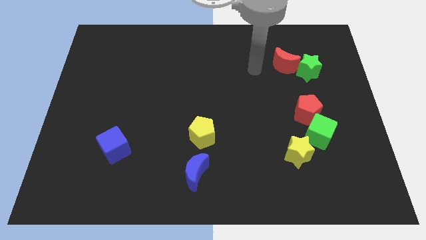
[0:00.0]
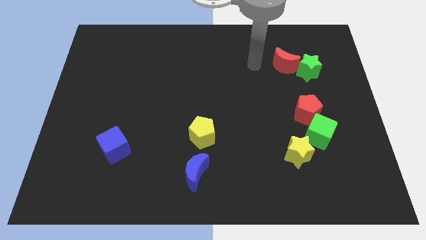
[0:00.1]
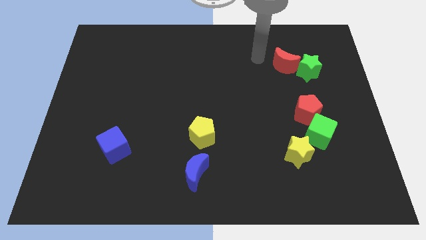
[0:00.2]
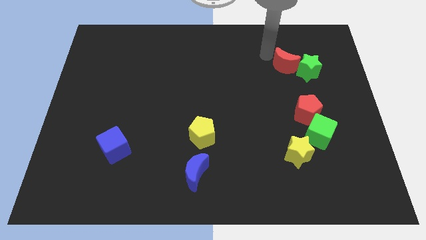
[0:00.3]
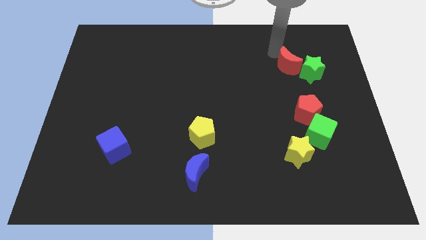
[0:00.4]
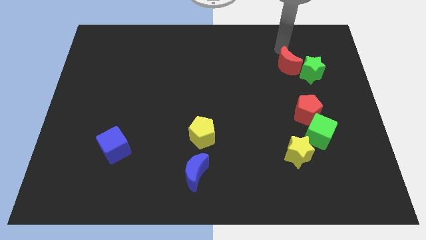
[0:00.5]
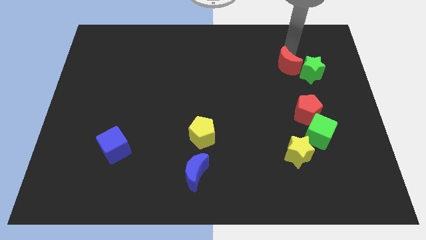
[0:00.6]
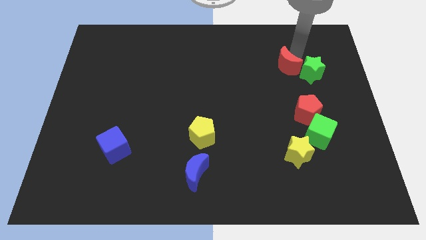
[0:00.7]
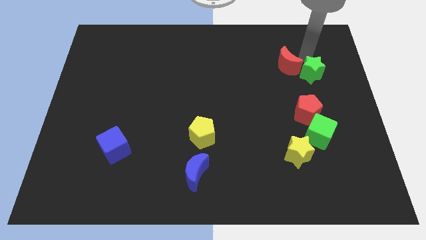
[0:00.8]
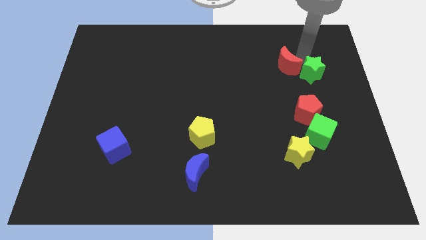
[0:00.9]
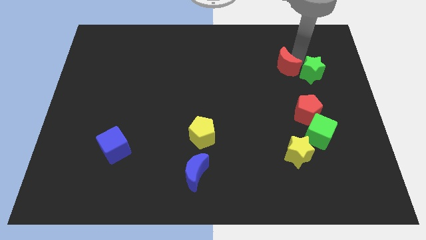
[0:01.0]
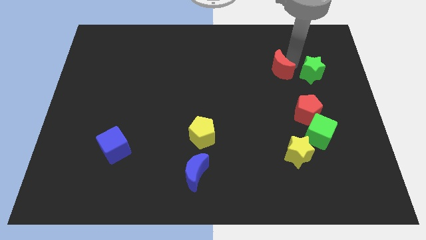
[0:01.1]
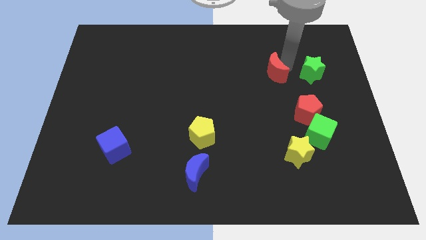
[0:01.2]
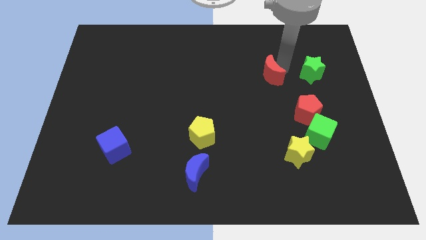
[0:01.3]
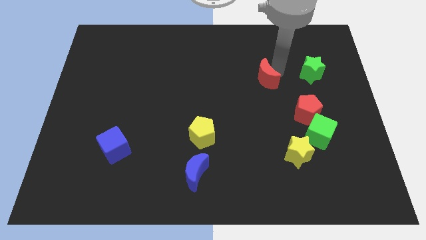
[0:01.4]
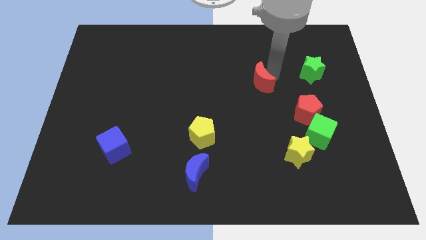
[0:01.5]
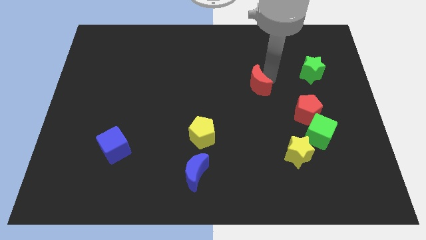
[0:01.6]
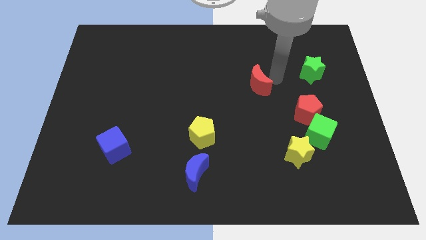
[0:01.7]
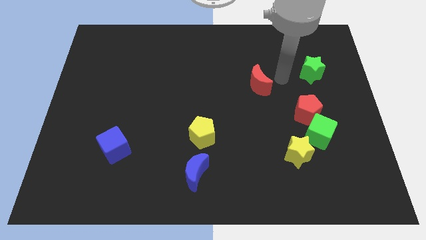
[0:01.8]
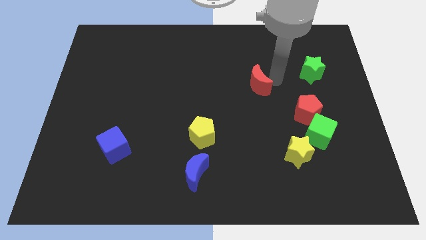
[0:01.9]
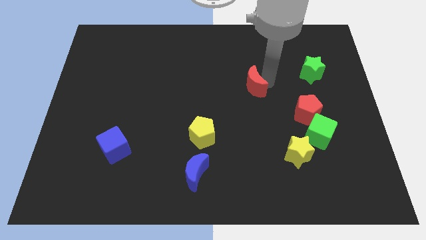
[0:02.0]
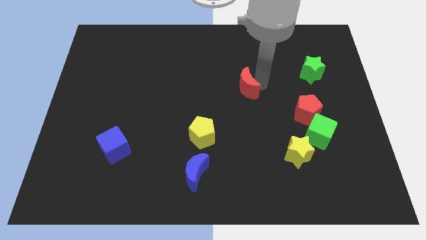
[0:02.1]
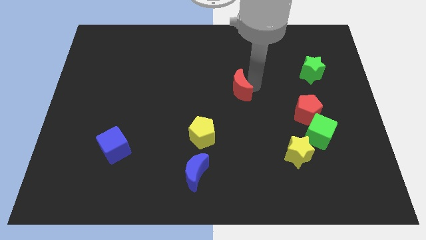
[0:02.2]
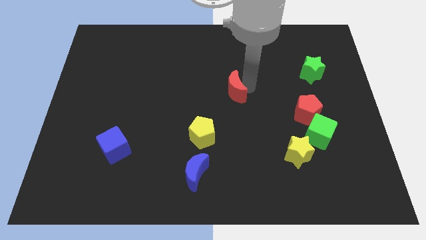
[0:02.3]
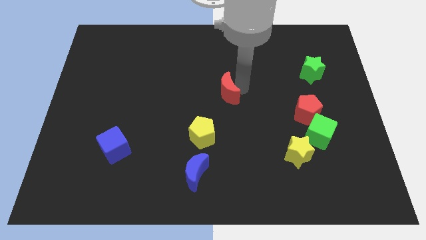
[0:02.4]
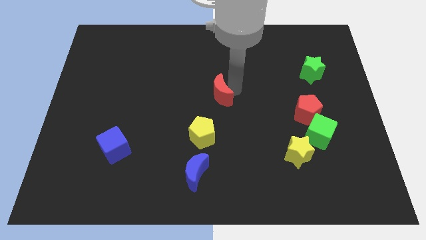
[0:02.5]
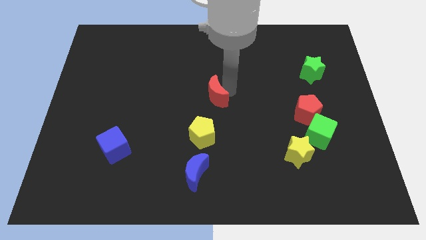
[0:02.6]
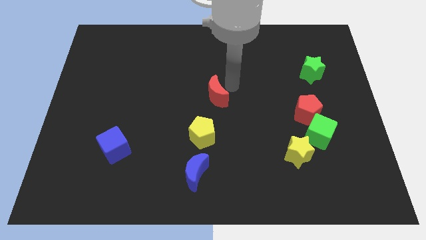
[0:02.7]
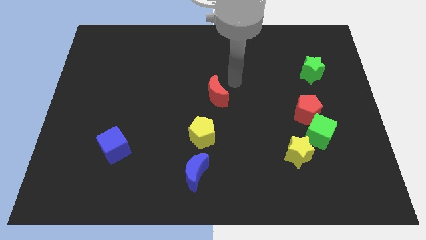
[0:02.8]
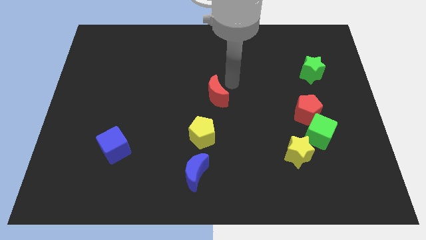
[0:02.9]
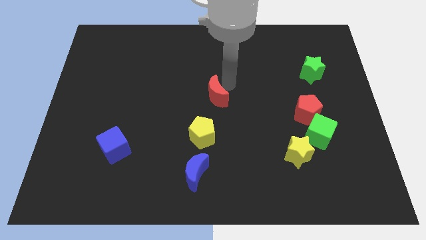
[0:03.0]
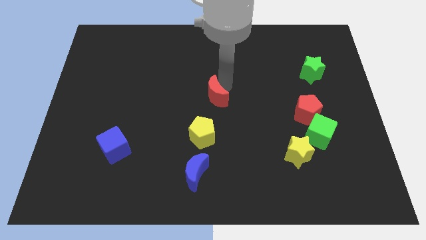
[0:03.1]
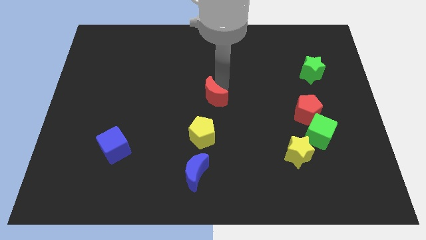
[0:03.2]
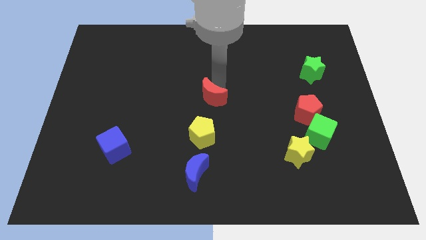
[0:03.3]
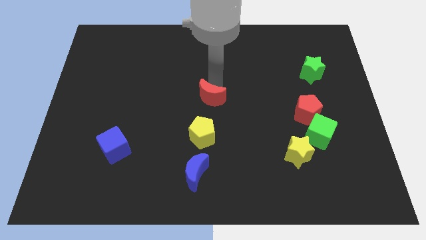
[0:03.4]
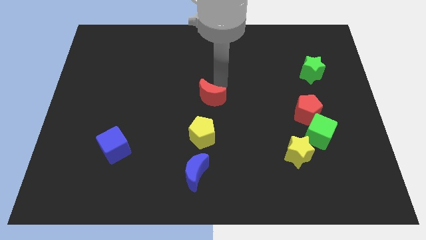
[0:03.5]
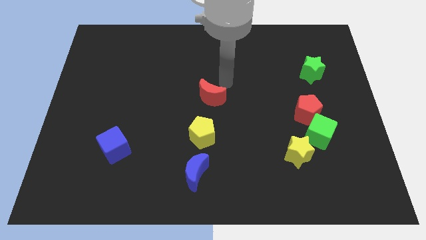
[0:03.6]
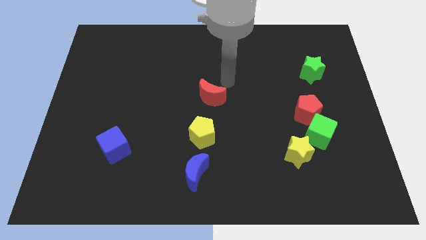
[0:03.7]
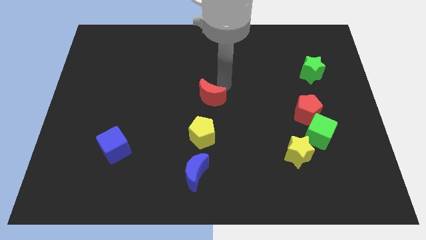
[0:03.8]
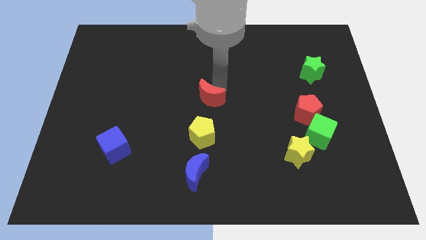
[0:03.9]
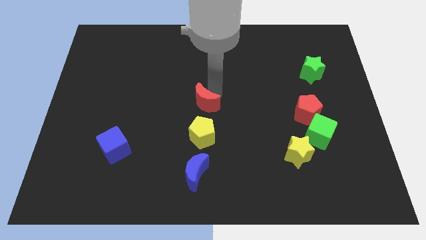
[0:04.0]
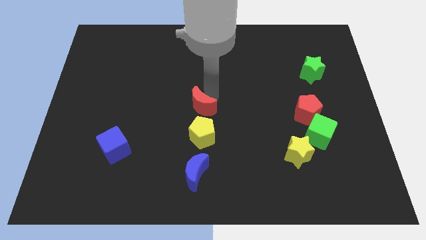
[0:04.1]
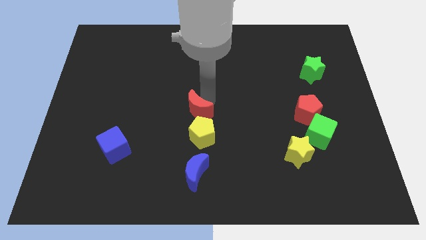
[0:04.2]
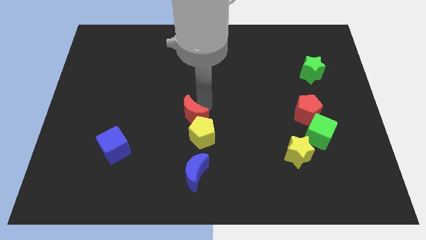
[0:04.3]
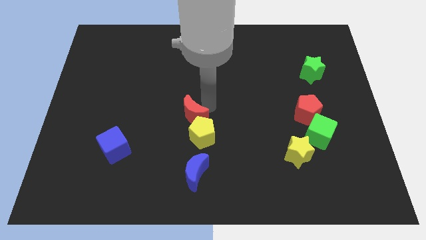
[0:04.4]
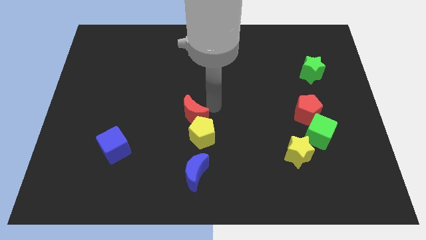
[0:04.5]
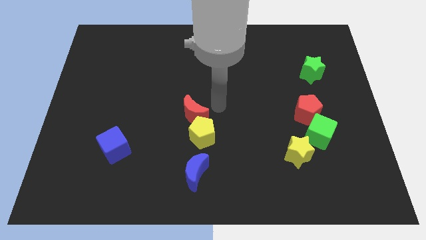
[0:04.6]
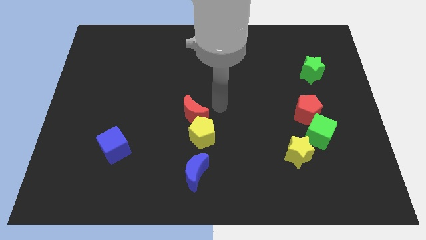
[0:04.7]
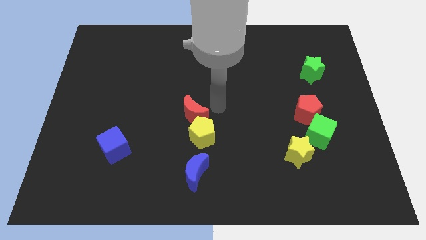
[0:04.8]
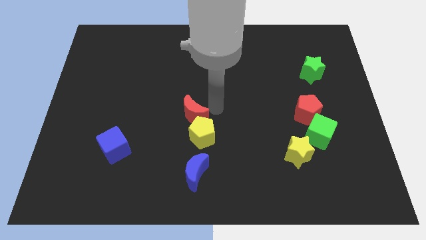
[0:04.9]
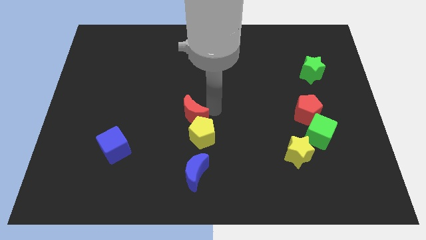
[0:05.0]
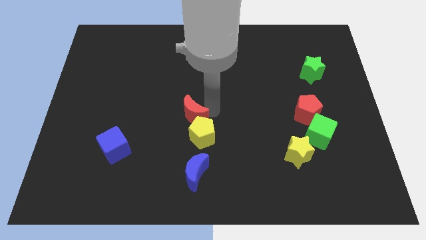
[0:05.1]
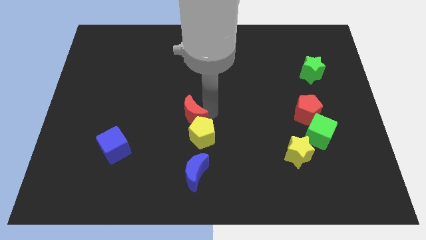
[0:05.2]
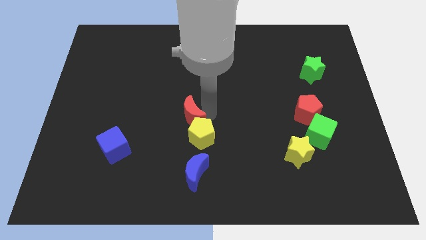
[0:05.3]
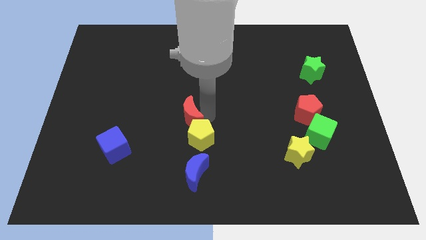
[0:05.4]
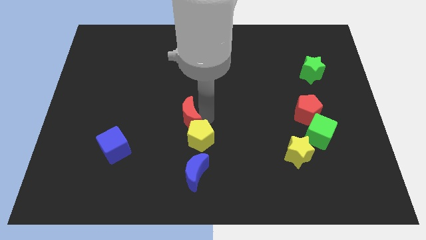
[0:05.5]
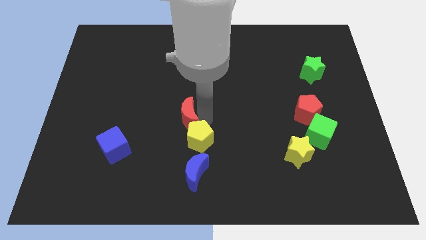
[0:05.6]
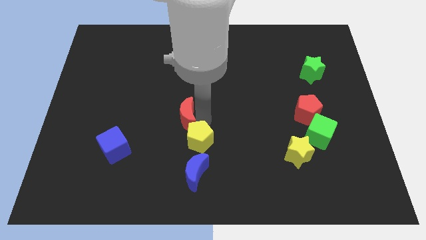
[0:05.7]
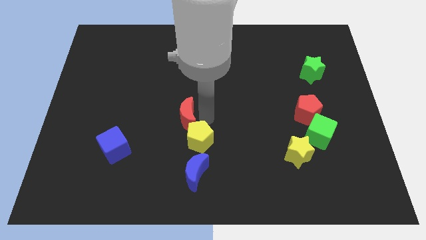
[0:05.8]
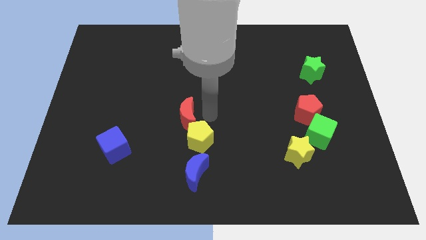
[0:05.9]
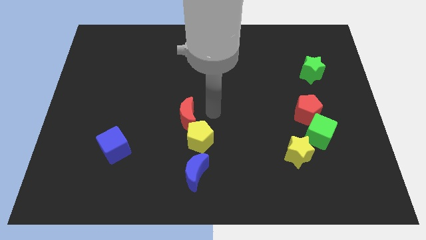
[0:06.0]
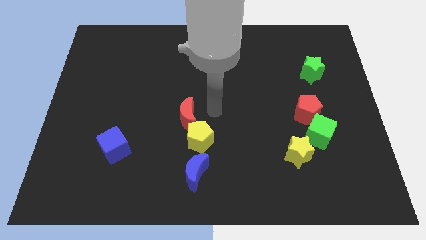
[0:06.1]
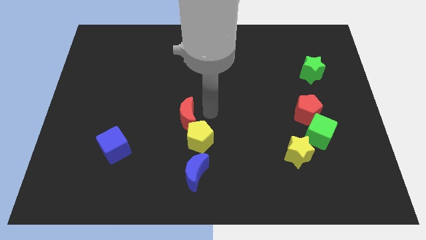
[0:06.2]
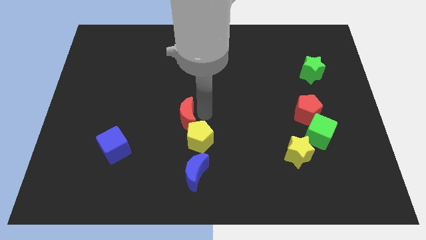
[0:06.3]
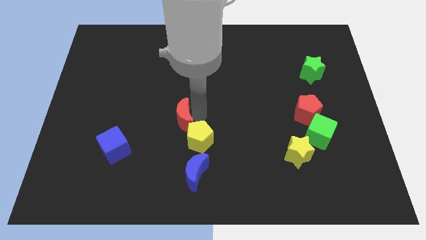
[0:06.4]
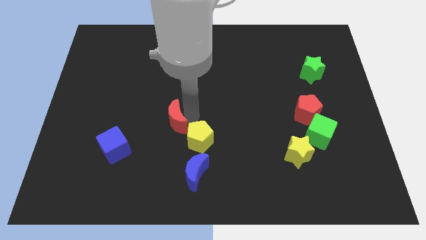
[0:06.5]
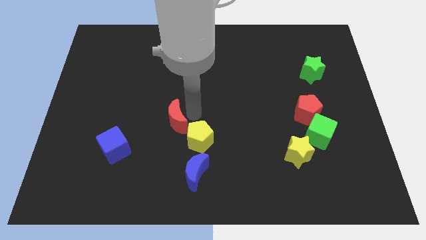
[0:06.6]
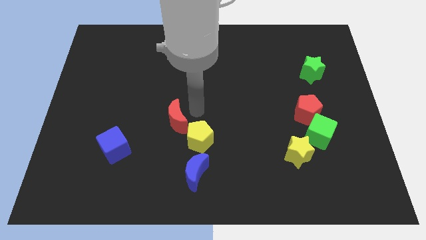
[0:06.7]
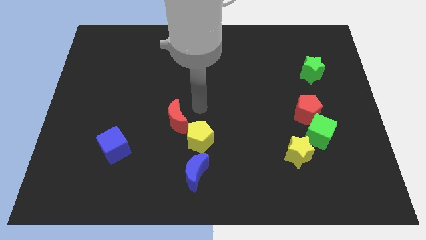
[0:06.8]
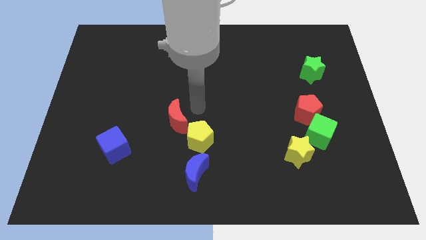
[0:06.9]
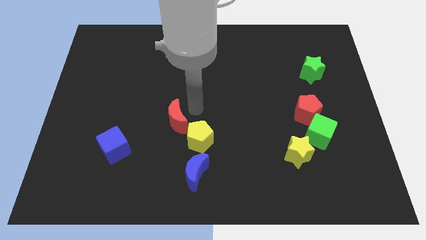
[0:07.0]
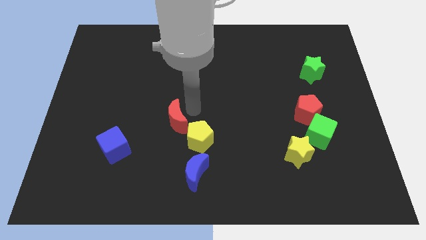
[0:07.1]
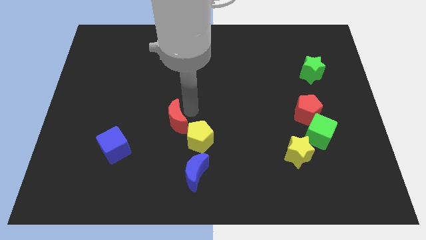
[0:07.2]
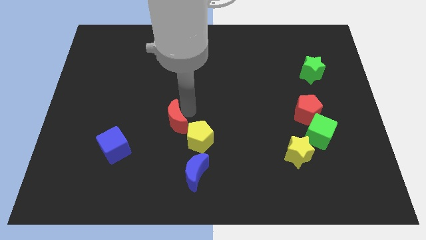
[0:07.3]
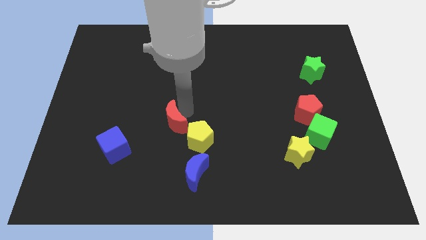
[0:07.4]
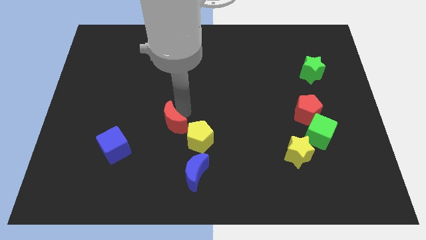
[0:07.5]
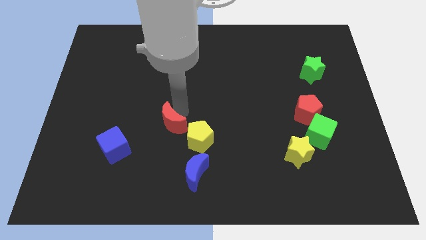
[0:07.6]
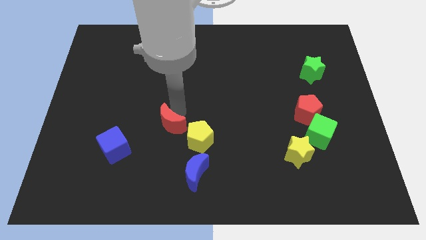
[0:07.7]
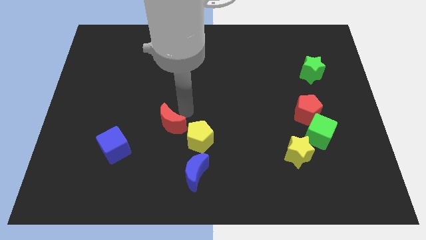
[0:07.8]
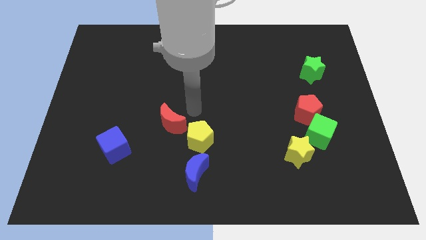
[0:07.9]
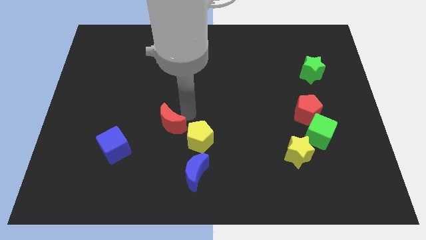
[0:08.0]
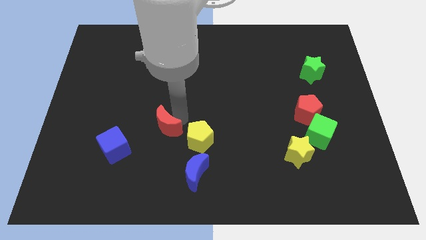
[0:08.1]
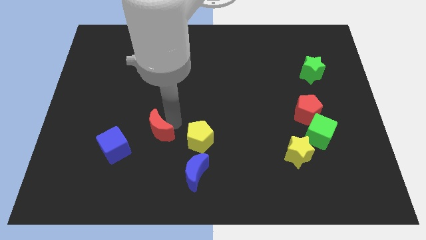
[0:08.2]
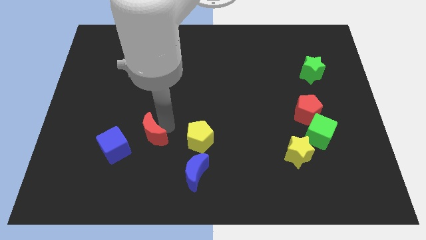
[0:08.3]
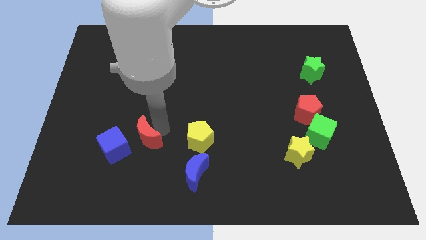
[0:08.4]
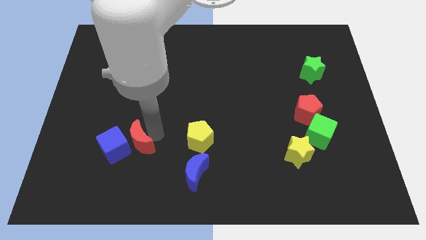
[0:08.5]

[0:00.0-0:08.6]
put the red moon close to the blue cube
